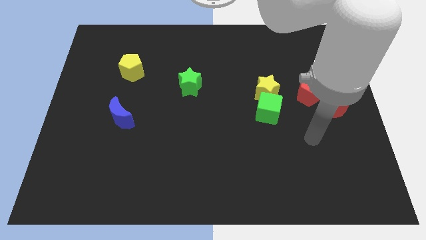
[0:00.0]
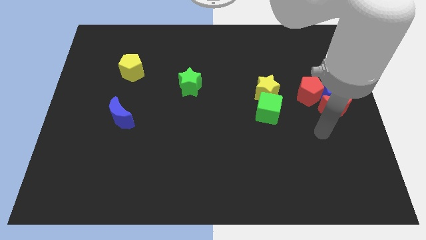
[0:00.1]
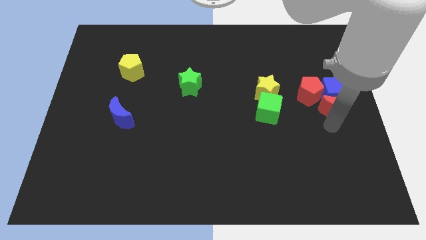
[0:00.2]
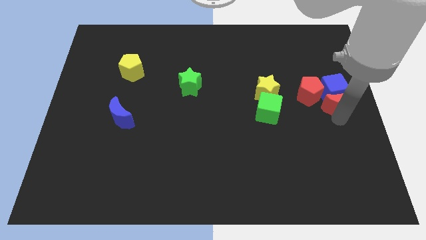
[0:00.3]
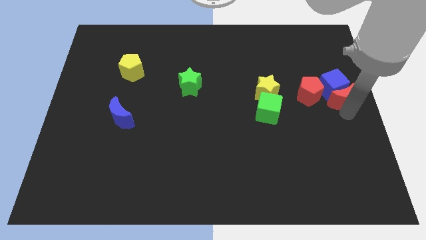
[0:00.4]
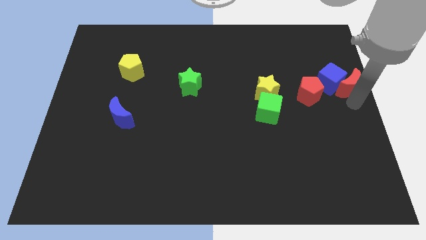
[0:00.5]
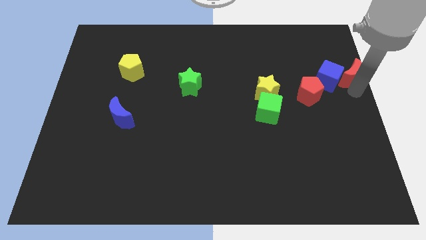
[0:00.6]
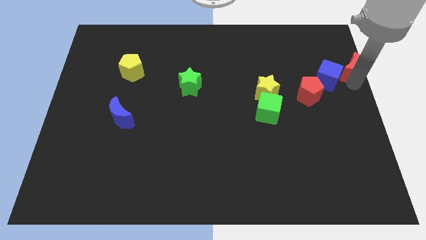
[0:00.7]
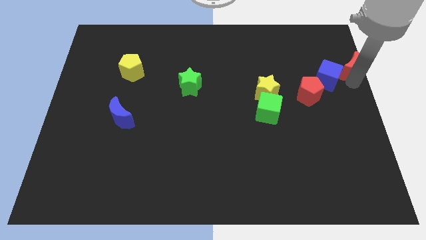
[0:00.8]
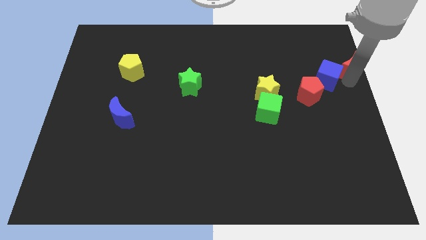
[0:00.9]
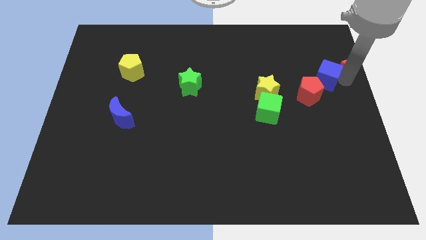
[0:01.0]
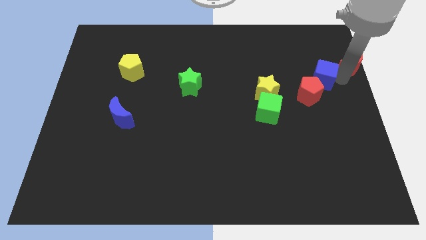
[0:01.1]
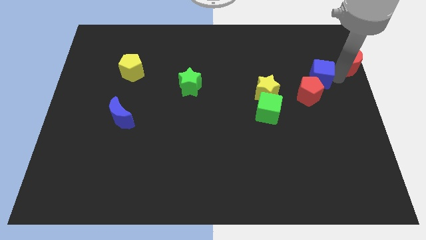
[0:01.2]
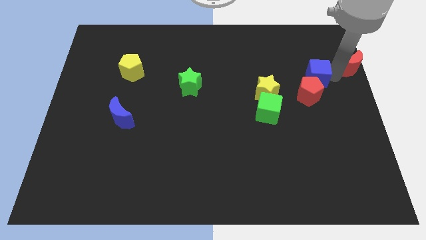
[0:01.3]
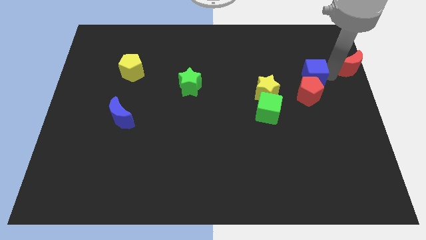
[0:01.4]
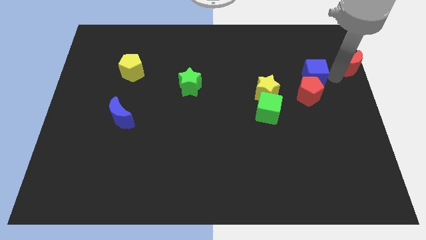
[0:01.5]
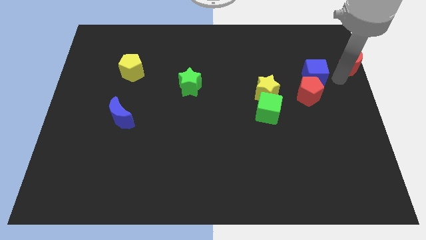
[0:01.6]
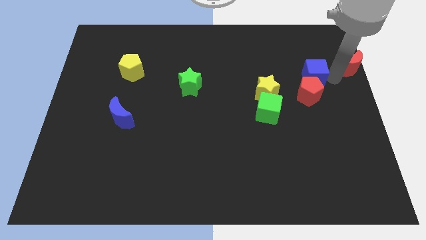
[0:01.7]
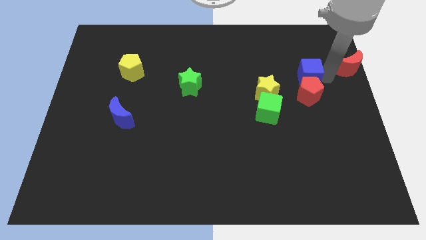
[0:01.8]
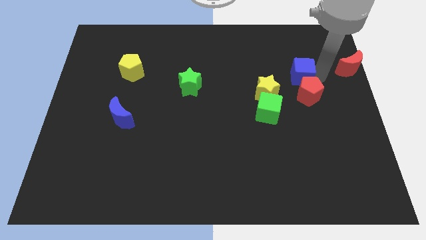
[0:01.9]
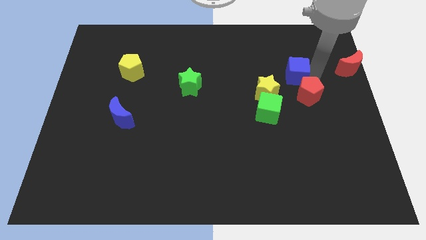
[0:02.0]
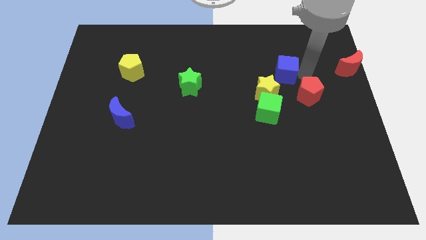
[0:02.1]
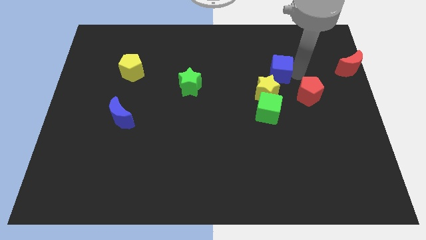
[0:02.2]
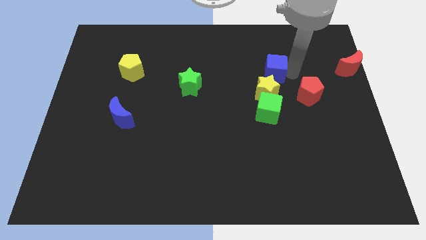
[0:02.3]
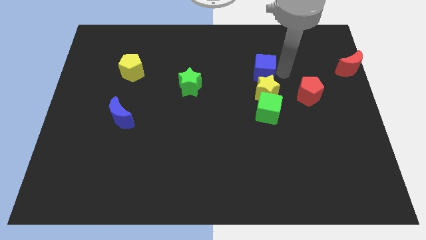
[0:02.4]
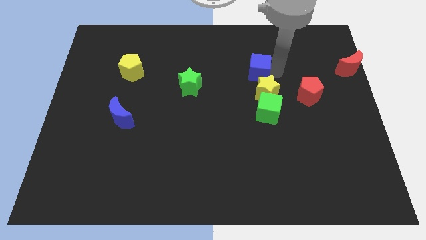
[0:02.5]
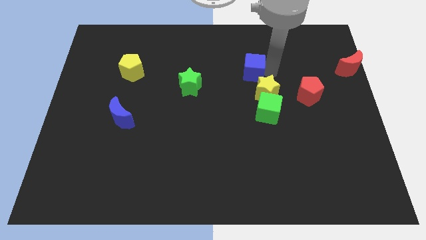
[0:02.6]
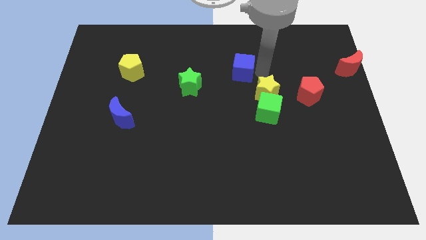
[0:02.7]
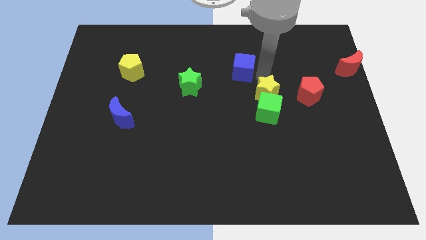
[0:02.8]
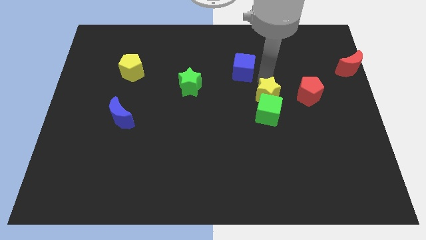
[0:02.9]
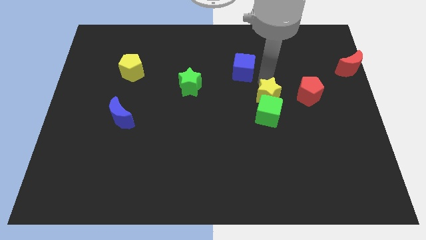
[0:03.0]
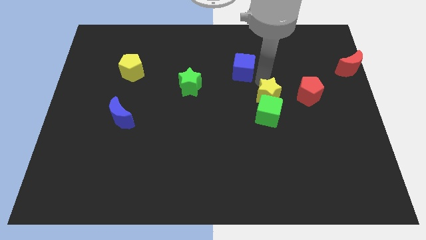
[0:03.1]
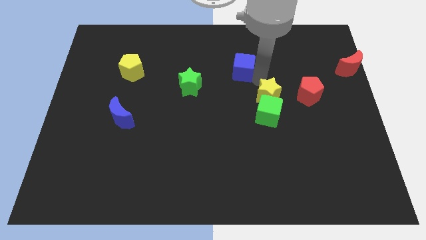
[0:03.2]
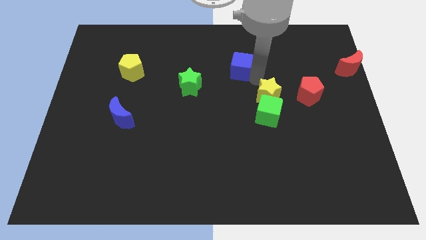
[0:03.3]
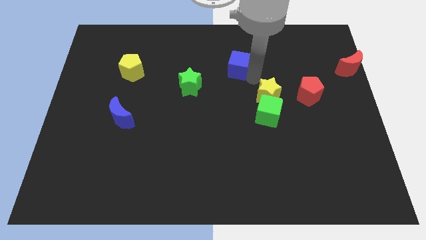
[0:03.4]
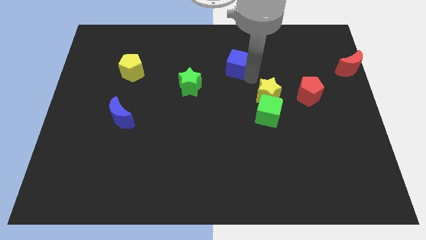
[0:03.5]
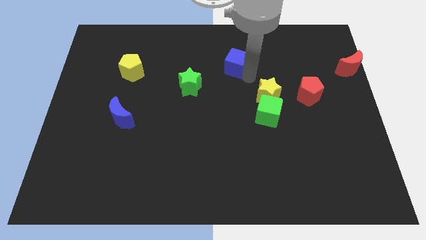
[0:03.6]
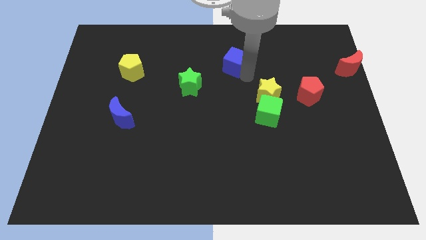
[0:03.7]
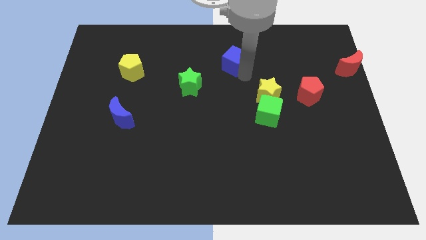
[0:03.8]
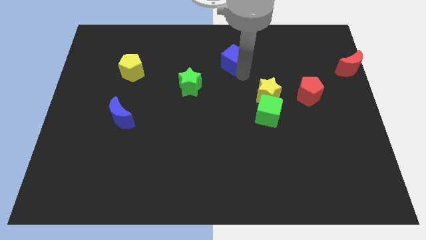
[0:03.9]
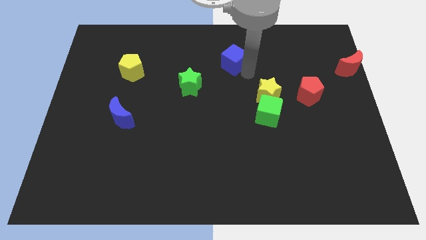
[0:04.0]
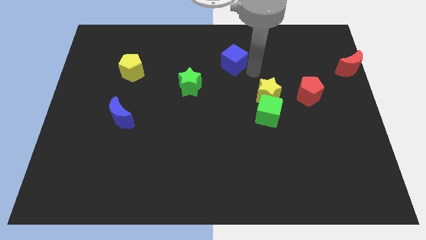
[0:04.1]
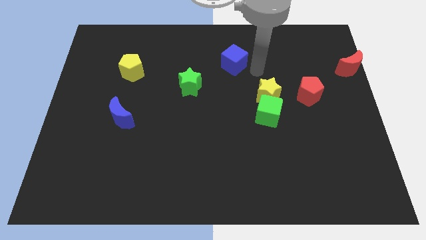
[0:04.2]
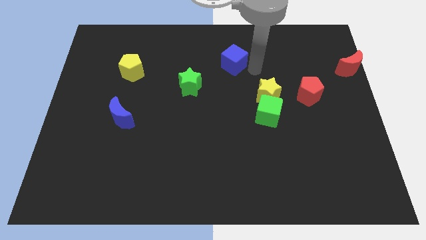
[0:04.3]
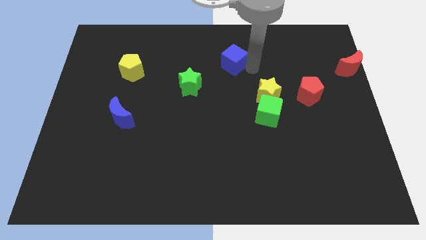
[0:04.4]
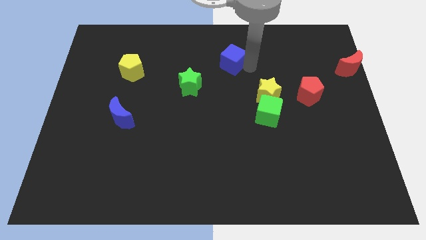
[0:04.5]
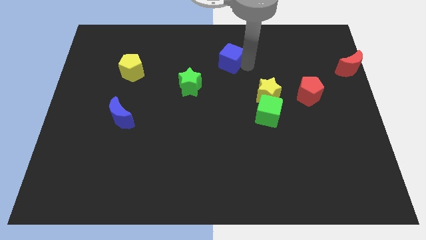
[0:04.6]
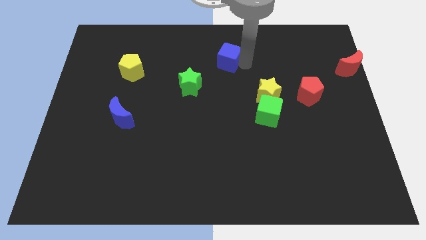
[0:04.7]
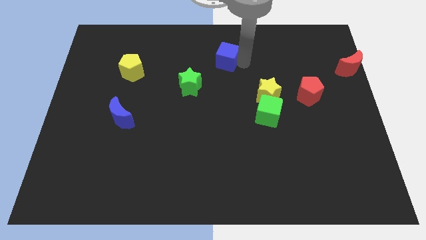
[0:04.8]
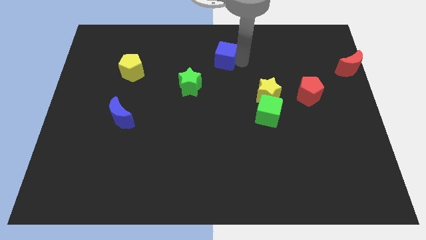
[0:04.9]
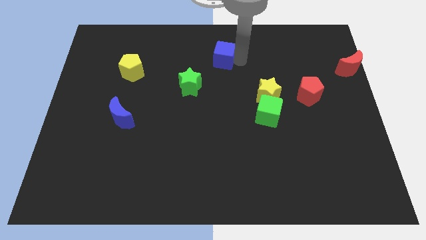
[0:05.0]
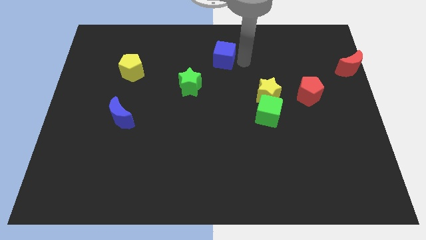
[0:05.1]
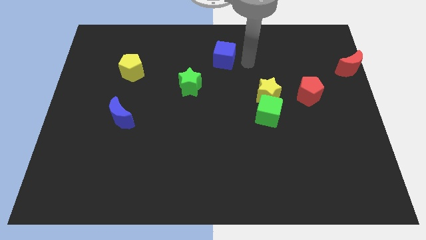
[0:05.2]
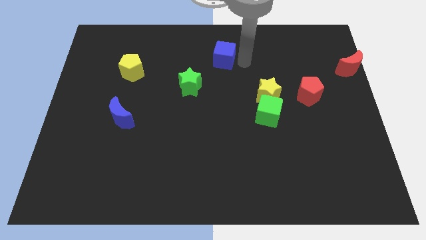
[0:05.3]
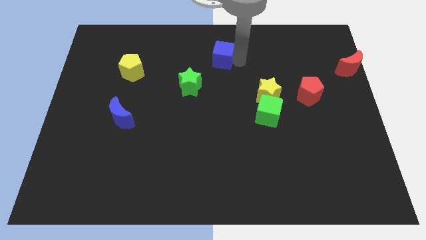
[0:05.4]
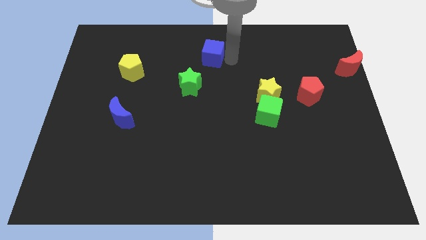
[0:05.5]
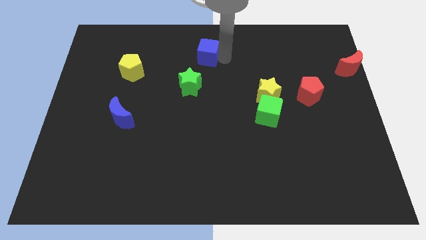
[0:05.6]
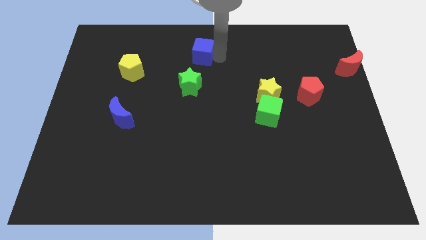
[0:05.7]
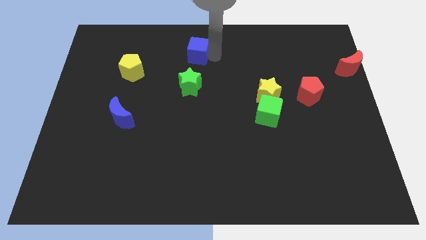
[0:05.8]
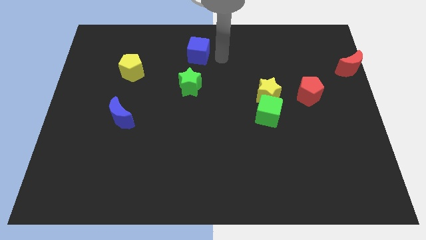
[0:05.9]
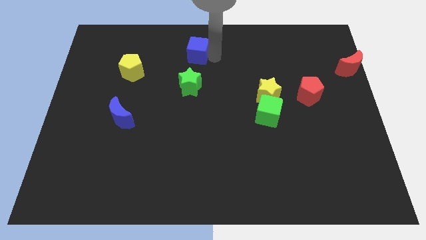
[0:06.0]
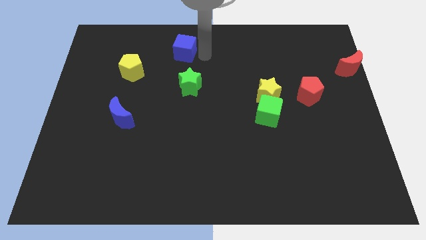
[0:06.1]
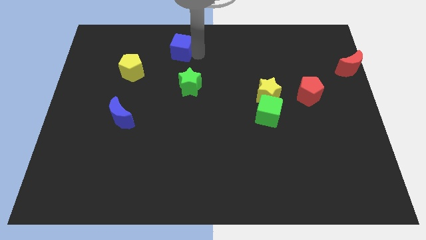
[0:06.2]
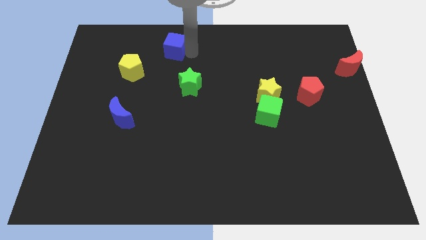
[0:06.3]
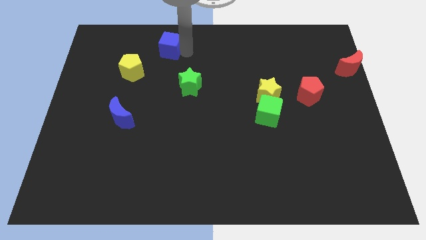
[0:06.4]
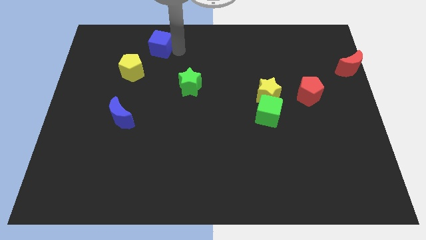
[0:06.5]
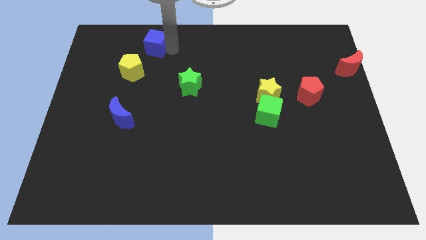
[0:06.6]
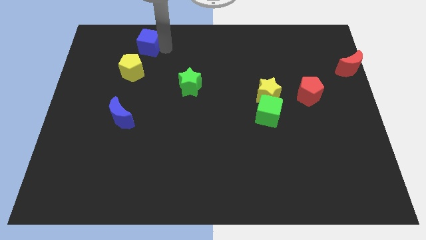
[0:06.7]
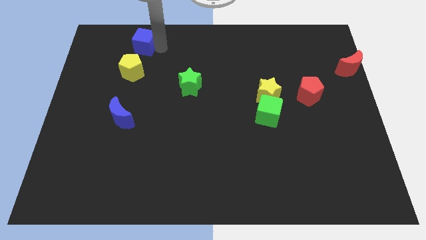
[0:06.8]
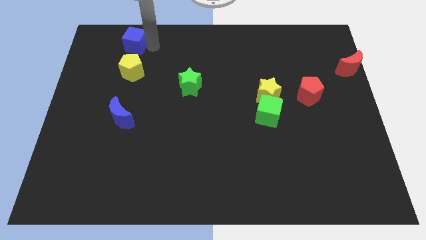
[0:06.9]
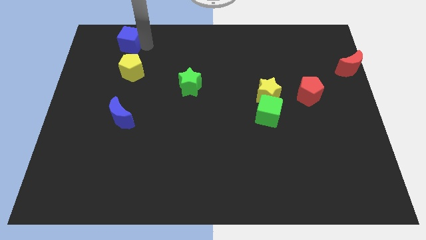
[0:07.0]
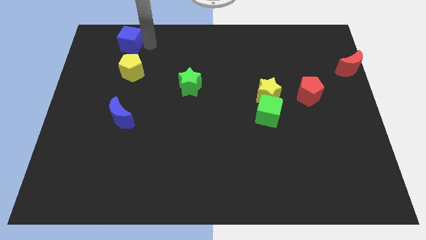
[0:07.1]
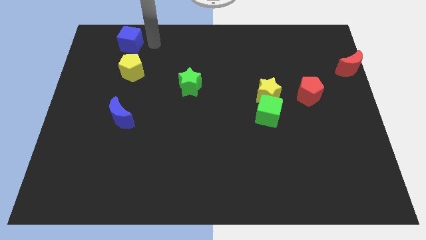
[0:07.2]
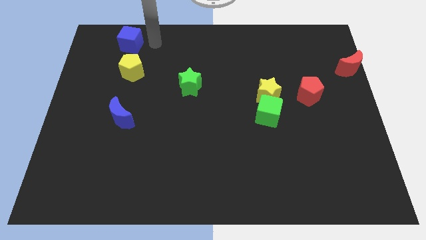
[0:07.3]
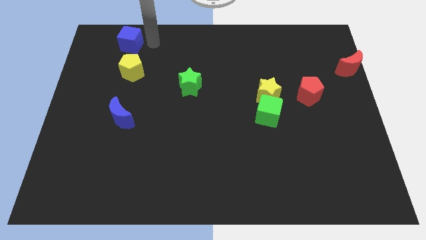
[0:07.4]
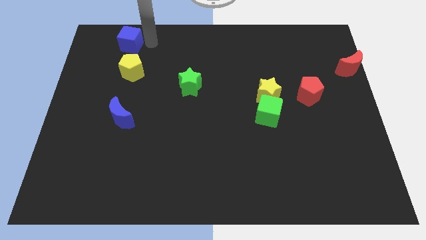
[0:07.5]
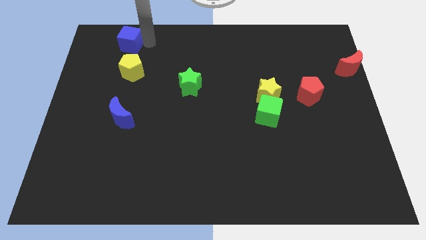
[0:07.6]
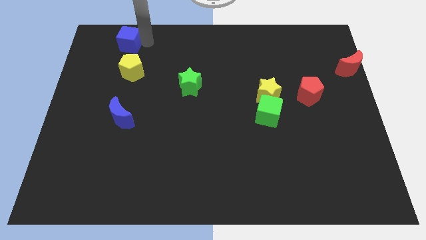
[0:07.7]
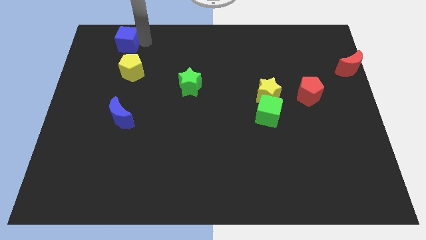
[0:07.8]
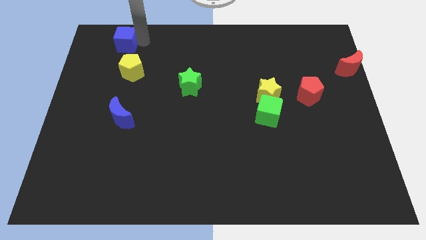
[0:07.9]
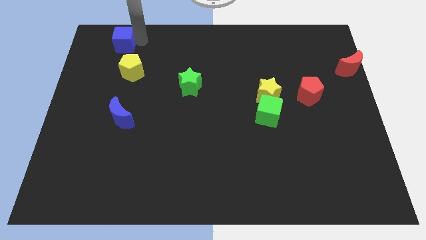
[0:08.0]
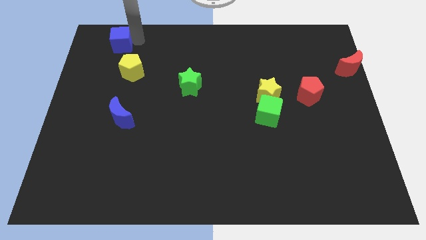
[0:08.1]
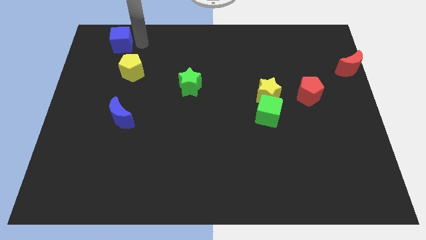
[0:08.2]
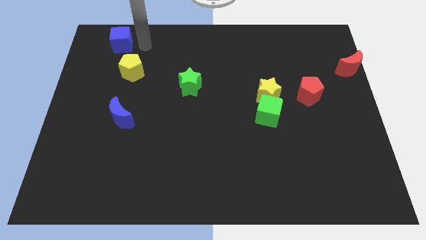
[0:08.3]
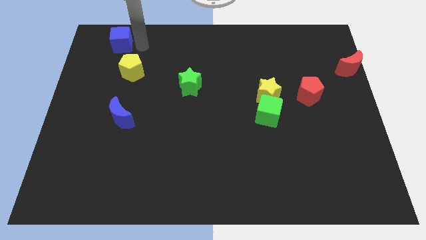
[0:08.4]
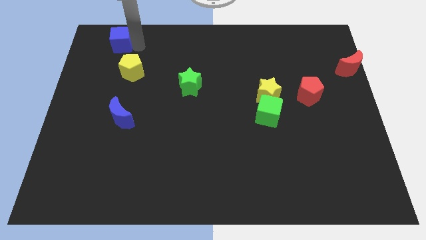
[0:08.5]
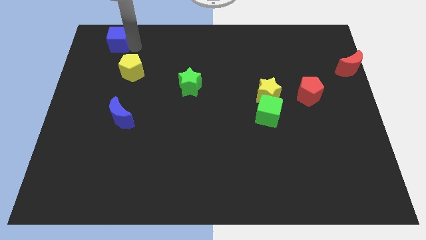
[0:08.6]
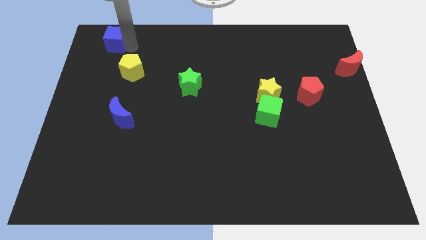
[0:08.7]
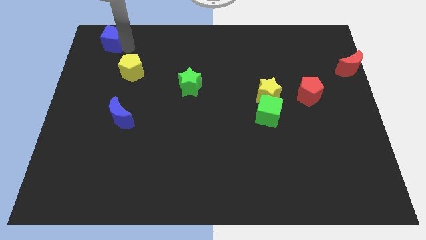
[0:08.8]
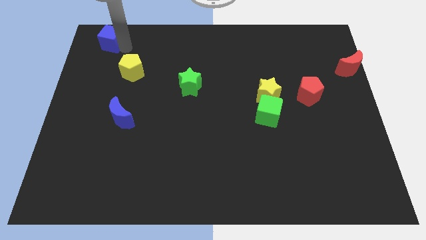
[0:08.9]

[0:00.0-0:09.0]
move the blue cube to the top left corner
